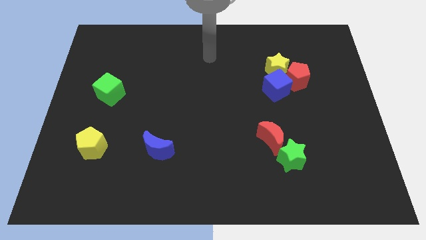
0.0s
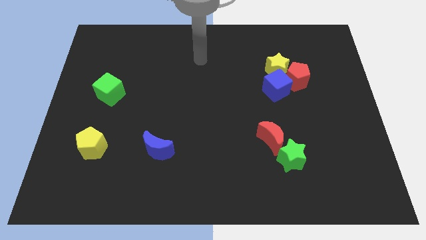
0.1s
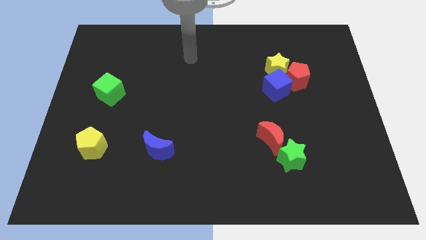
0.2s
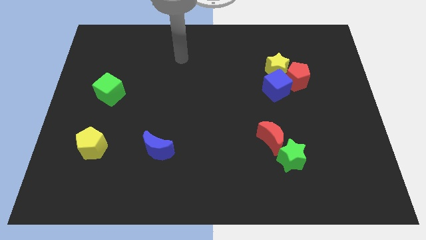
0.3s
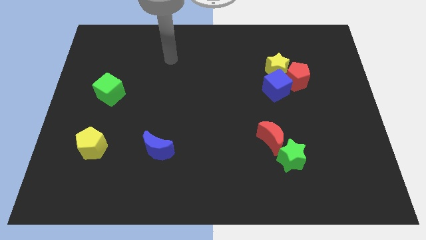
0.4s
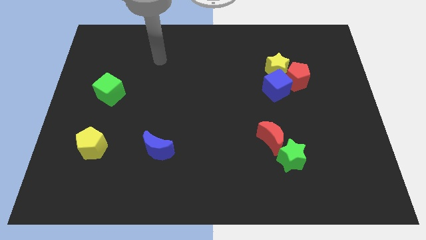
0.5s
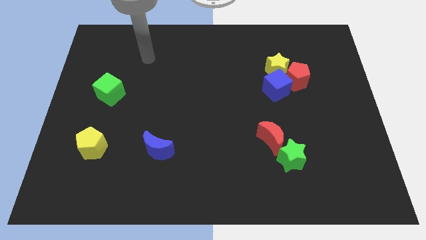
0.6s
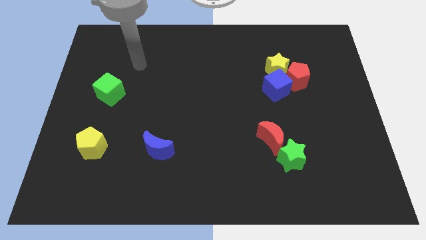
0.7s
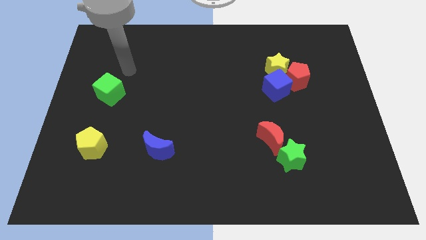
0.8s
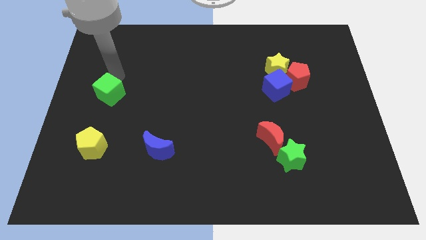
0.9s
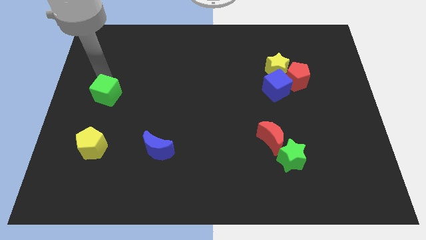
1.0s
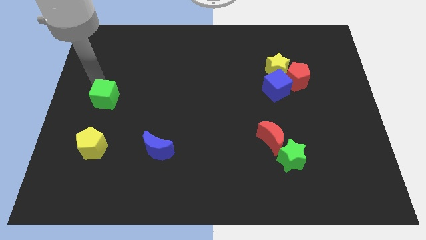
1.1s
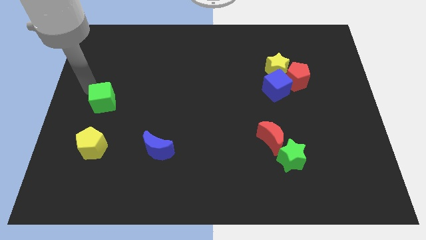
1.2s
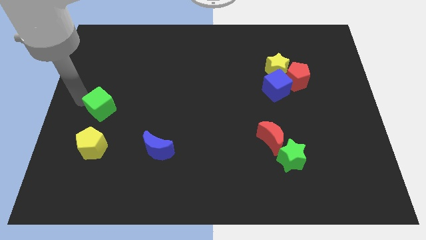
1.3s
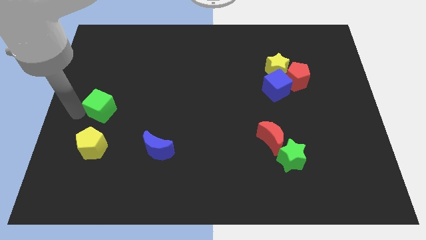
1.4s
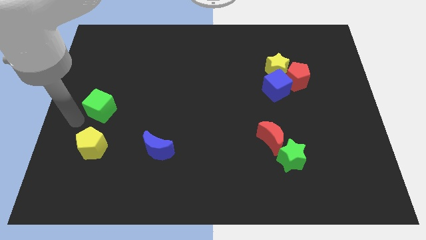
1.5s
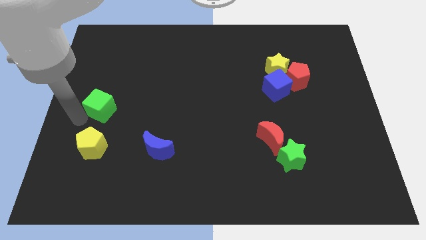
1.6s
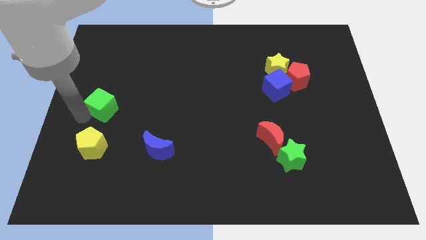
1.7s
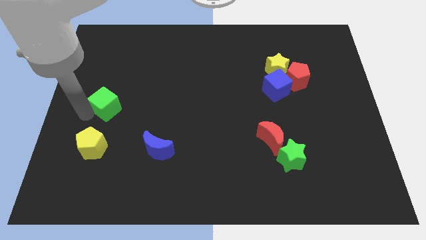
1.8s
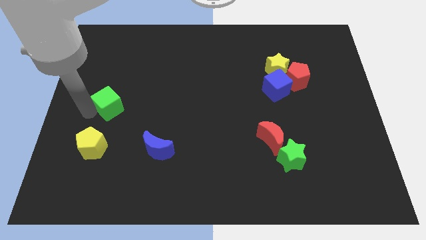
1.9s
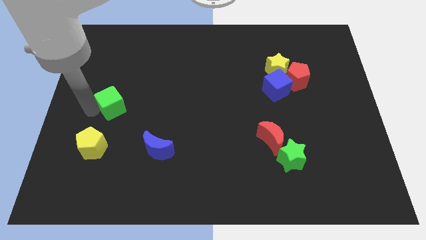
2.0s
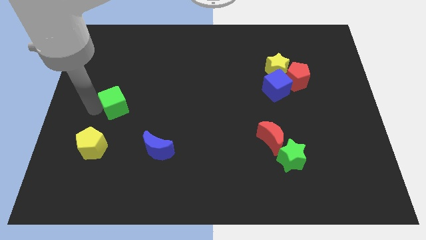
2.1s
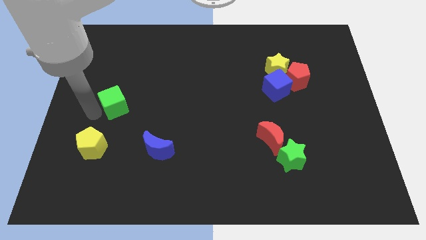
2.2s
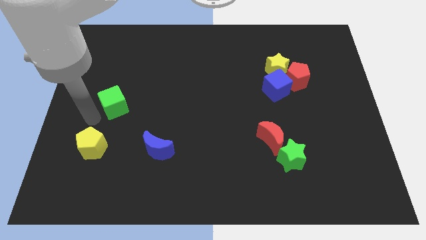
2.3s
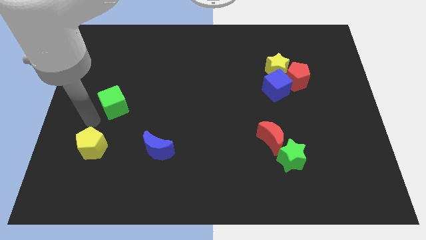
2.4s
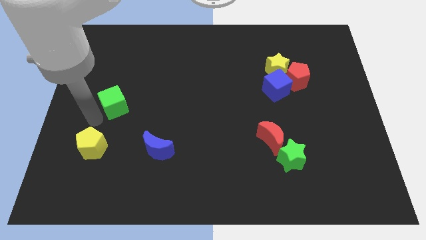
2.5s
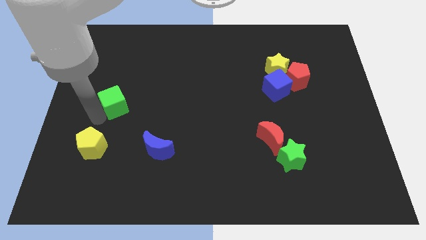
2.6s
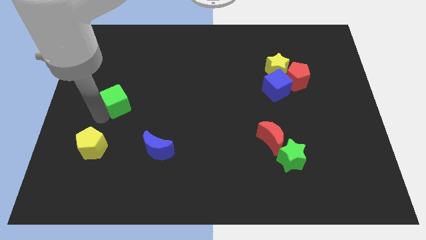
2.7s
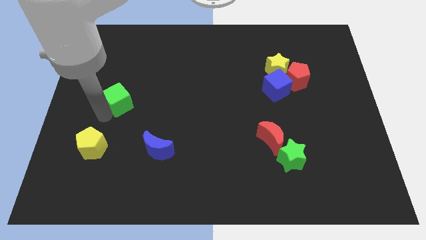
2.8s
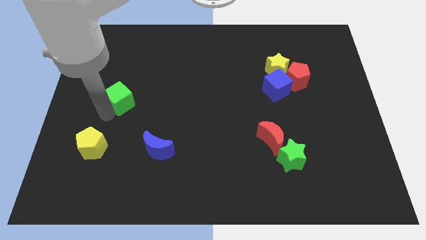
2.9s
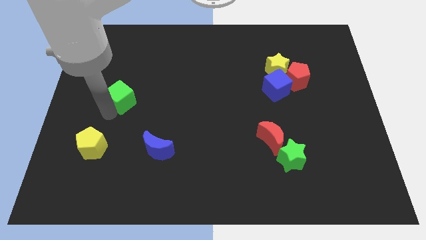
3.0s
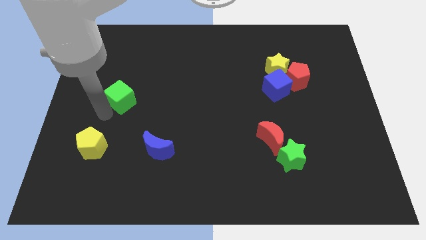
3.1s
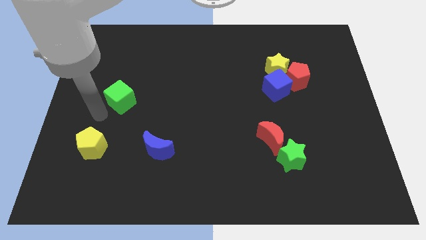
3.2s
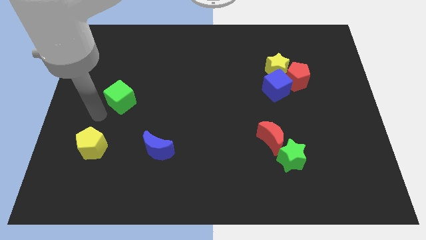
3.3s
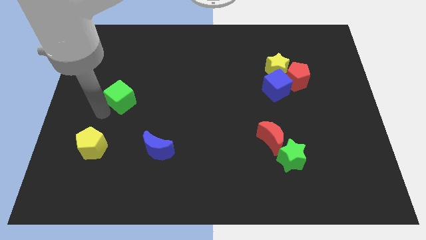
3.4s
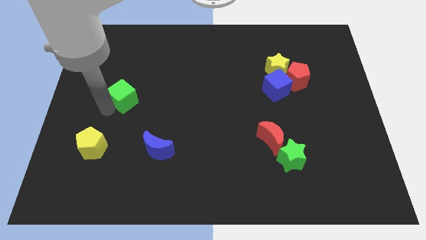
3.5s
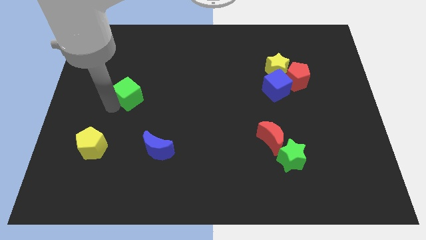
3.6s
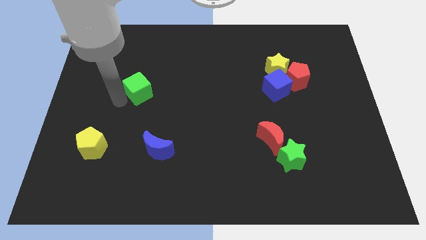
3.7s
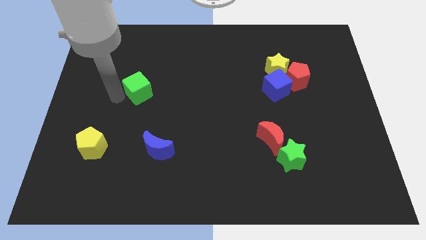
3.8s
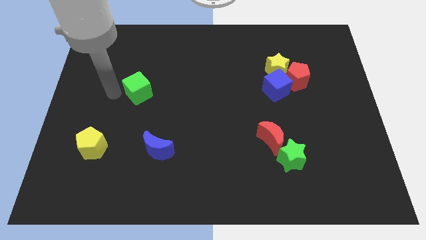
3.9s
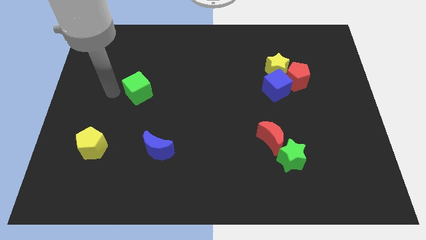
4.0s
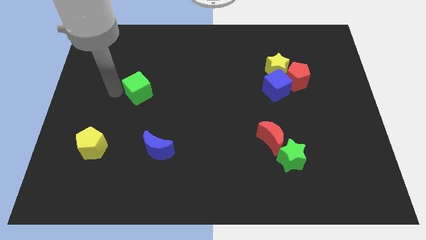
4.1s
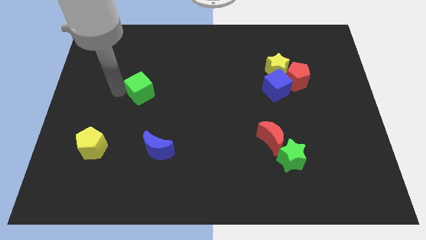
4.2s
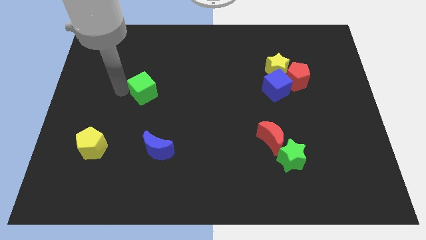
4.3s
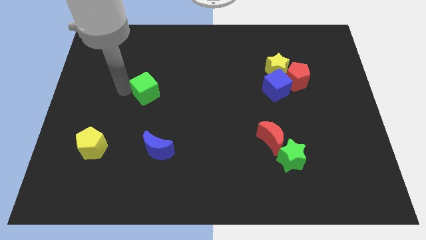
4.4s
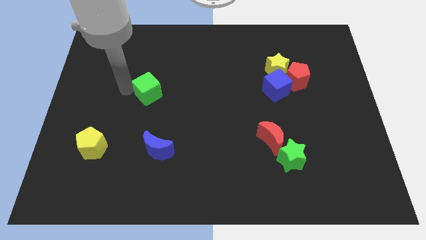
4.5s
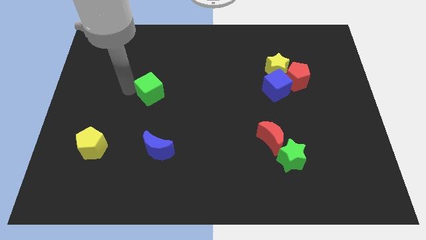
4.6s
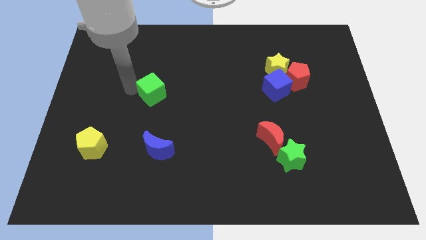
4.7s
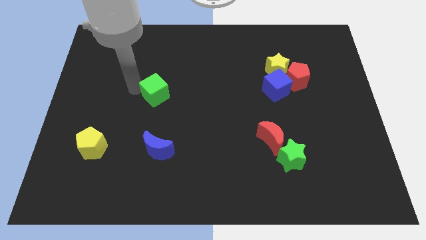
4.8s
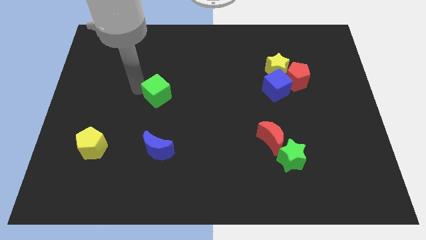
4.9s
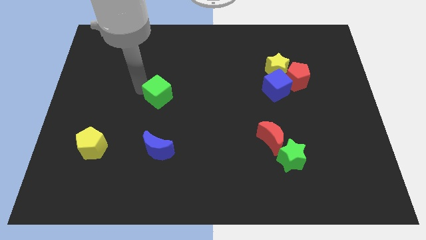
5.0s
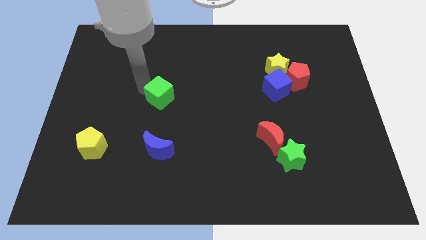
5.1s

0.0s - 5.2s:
push the green cube to the center of the board

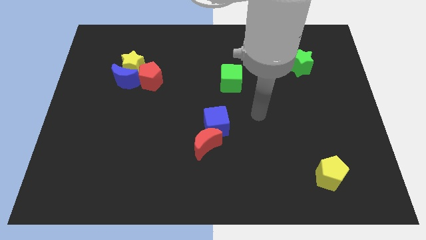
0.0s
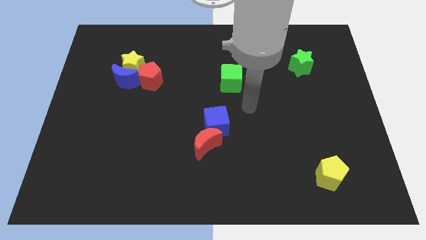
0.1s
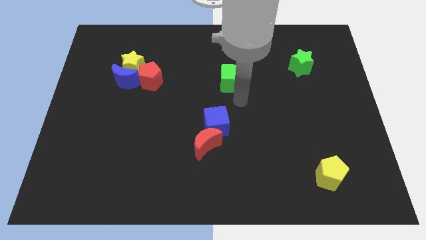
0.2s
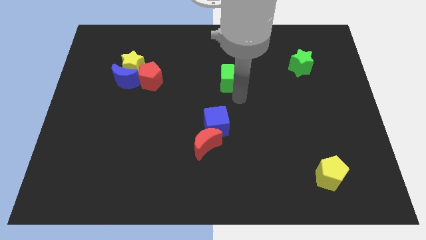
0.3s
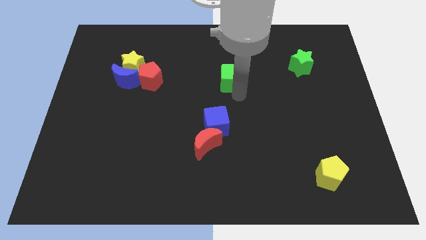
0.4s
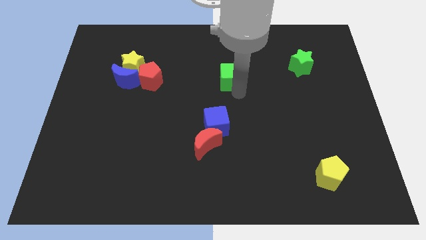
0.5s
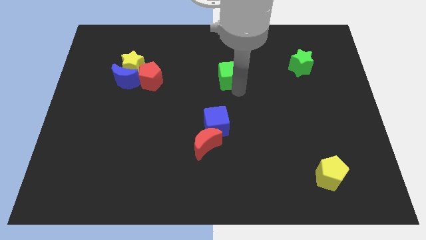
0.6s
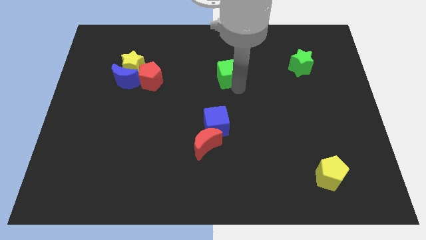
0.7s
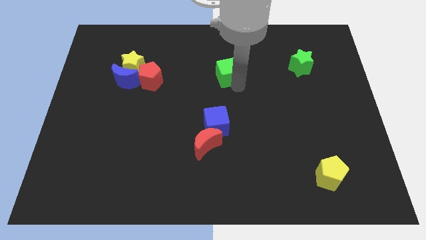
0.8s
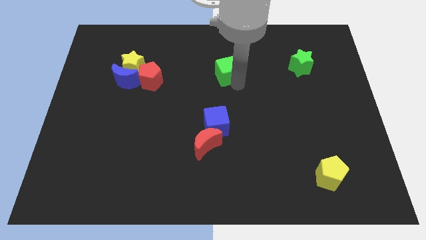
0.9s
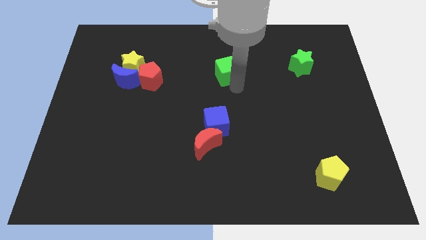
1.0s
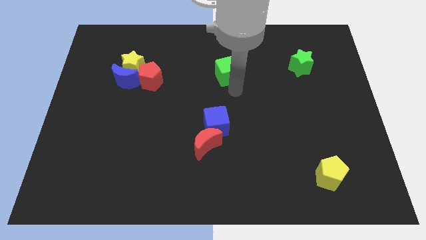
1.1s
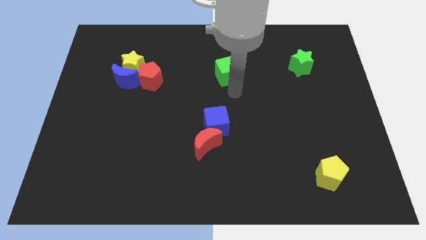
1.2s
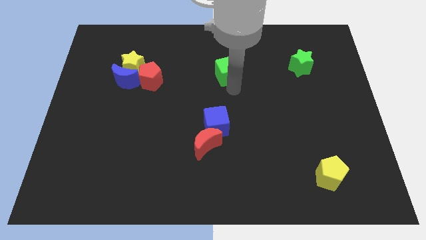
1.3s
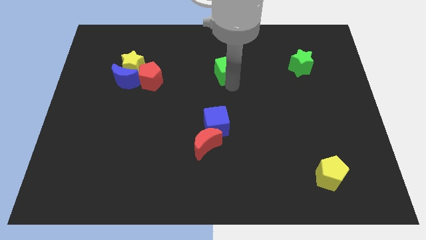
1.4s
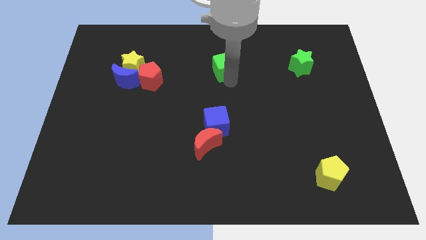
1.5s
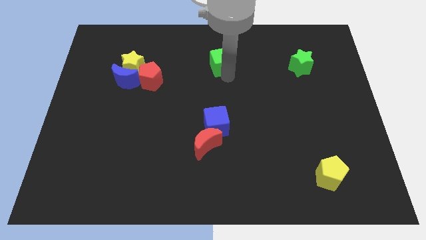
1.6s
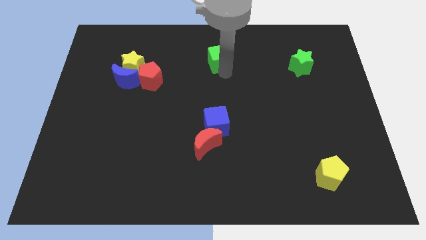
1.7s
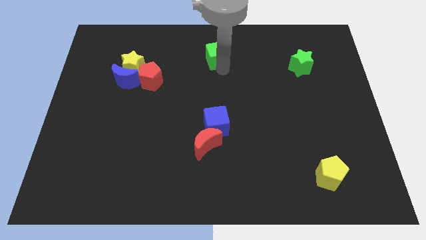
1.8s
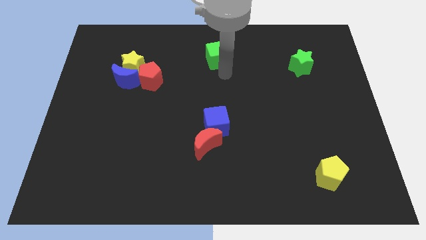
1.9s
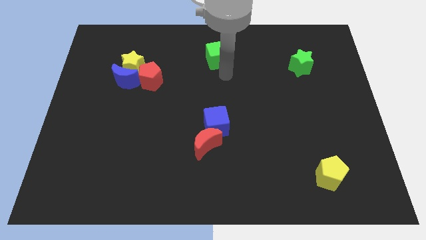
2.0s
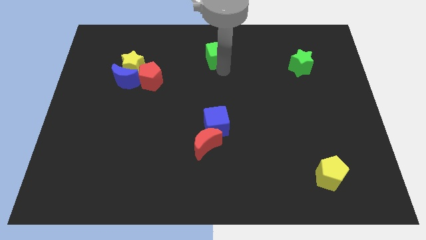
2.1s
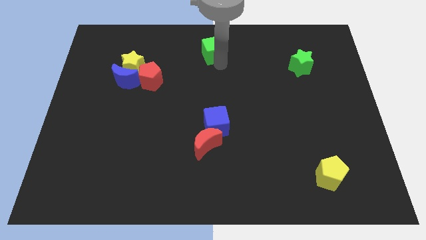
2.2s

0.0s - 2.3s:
move the green cube to the top
